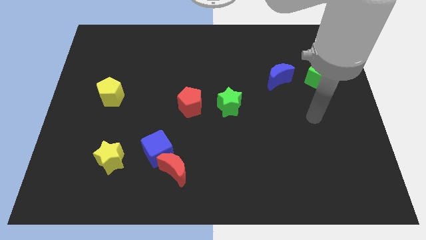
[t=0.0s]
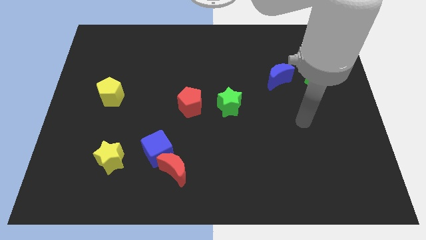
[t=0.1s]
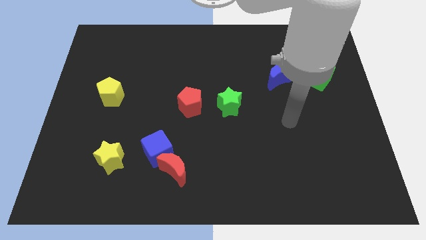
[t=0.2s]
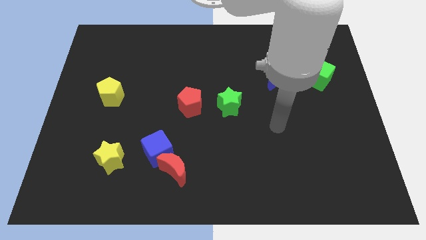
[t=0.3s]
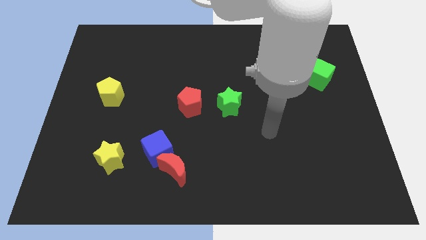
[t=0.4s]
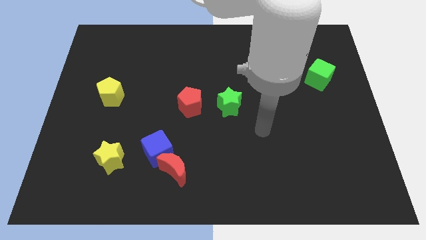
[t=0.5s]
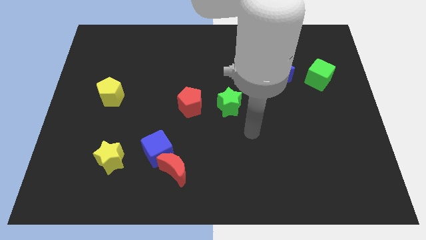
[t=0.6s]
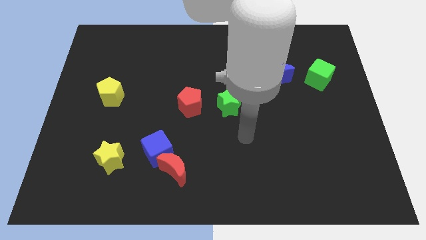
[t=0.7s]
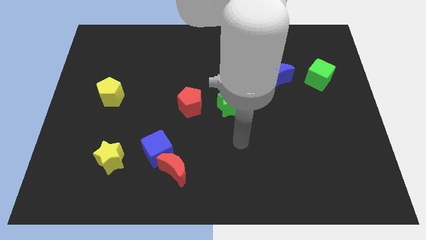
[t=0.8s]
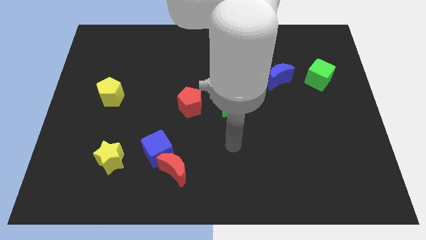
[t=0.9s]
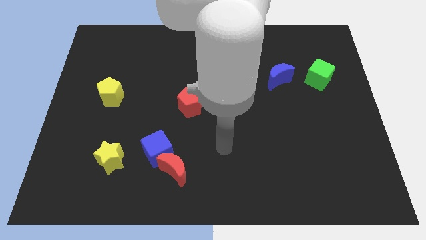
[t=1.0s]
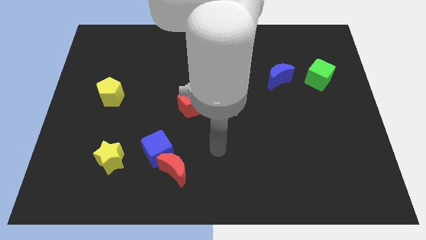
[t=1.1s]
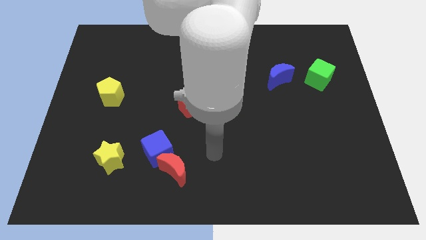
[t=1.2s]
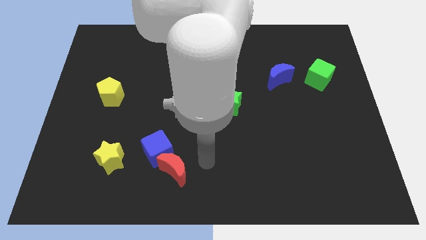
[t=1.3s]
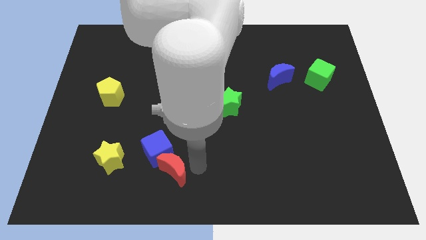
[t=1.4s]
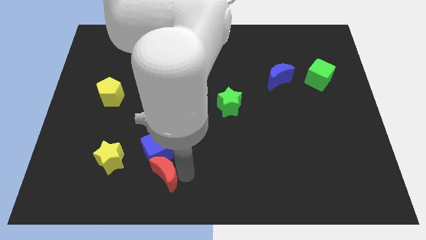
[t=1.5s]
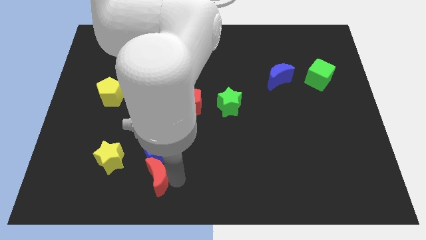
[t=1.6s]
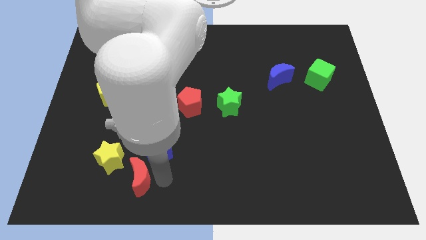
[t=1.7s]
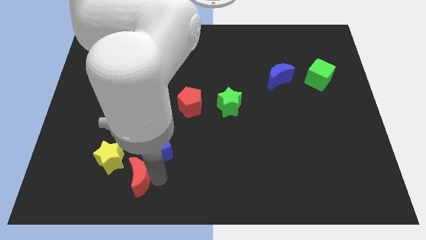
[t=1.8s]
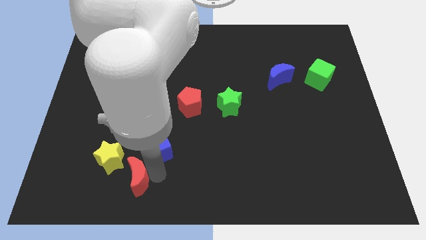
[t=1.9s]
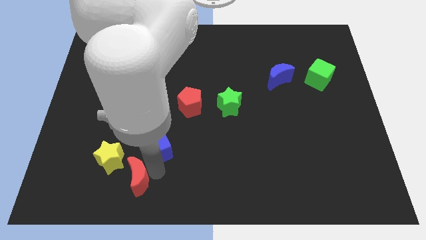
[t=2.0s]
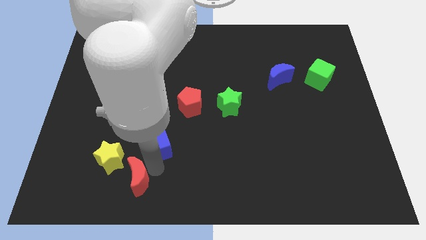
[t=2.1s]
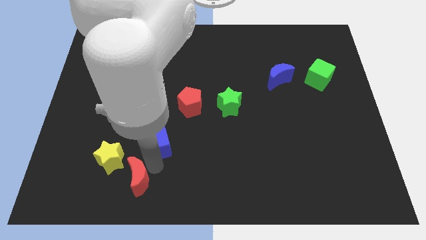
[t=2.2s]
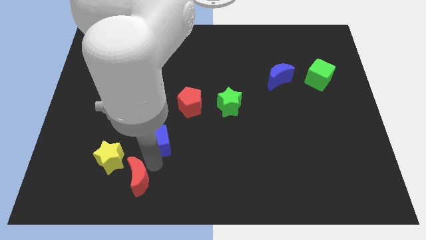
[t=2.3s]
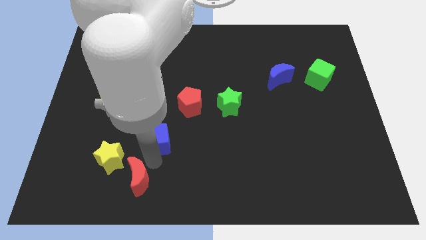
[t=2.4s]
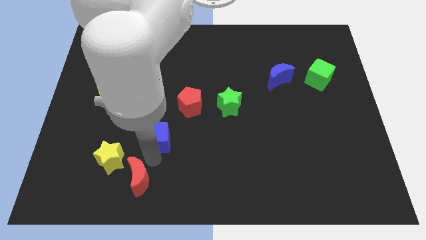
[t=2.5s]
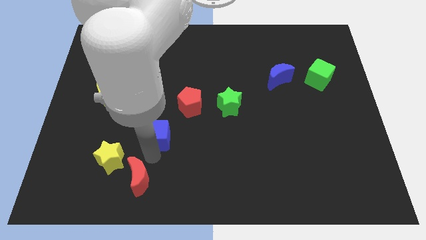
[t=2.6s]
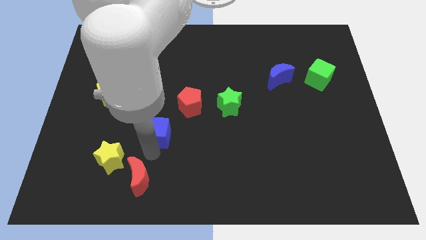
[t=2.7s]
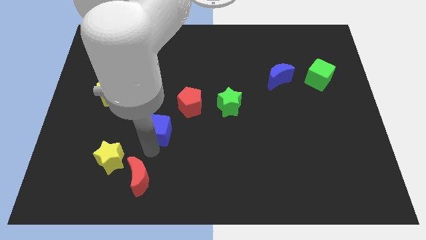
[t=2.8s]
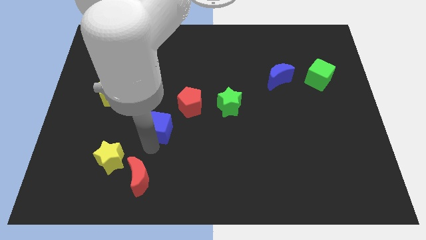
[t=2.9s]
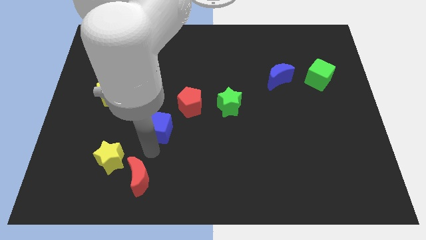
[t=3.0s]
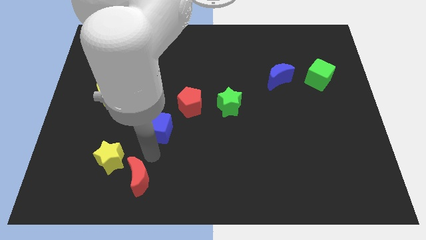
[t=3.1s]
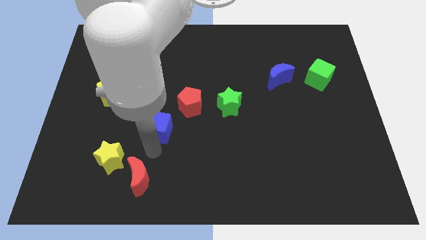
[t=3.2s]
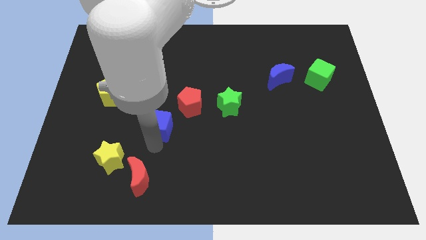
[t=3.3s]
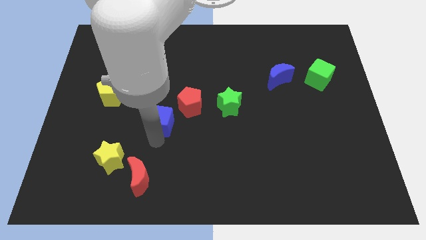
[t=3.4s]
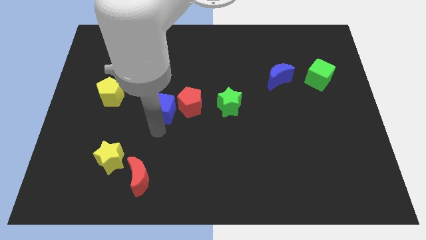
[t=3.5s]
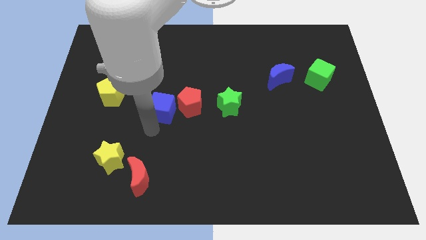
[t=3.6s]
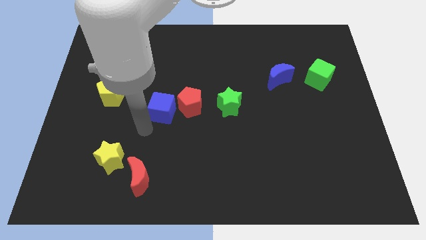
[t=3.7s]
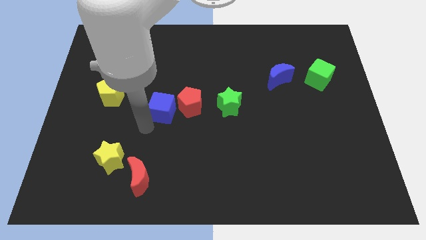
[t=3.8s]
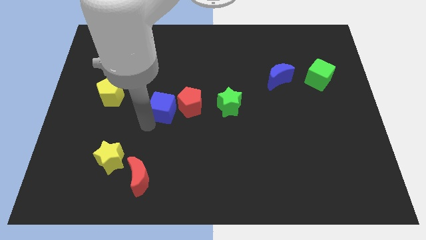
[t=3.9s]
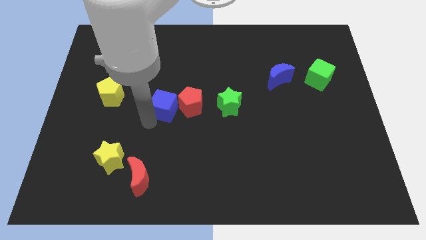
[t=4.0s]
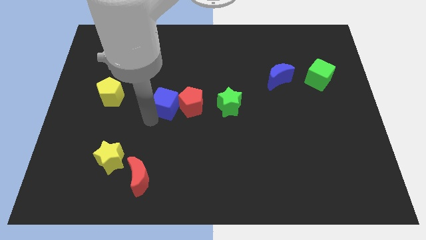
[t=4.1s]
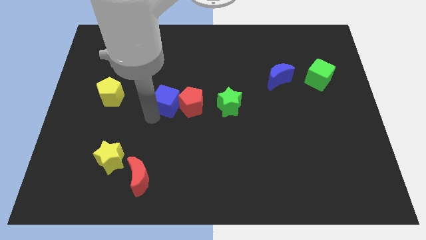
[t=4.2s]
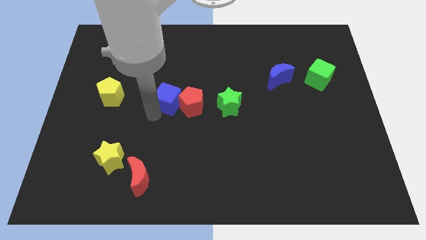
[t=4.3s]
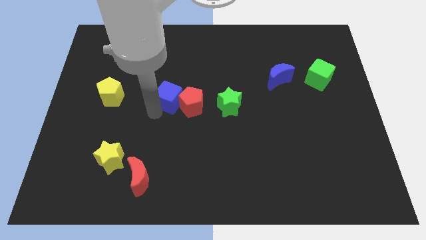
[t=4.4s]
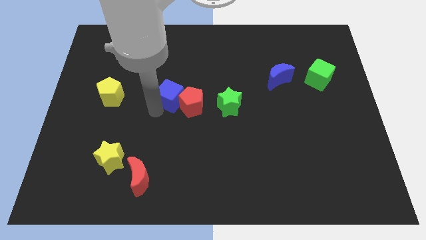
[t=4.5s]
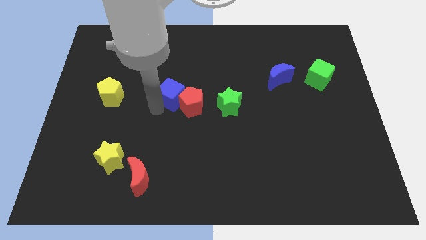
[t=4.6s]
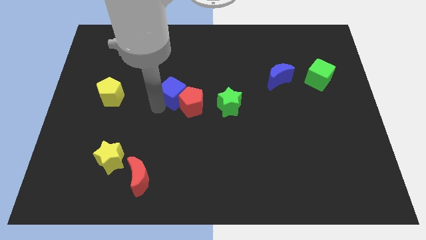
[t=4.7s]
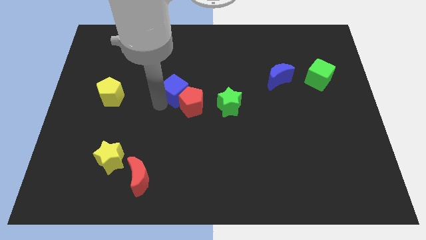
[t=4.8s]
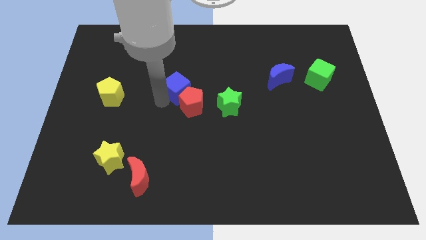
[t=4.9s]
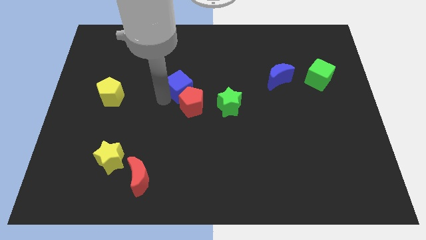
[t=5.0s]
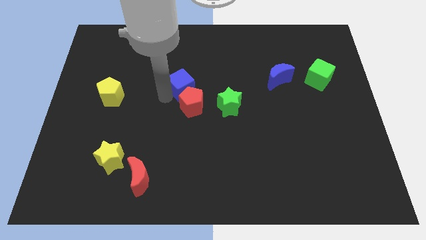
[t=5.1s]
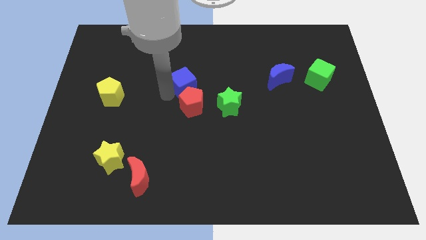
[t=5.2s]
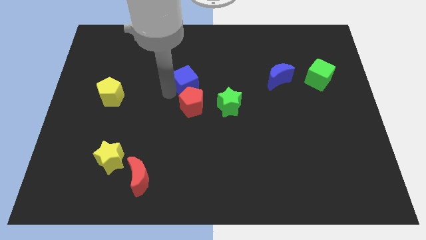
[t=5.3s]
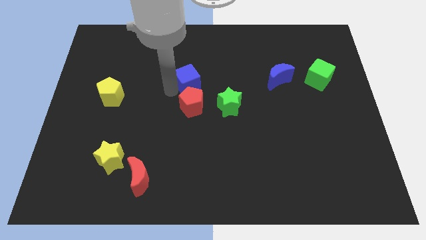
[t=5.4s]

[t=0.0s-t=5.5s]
push the blue cube to the top left side of the green star

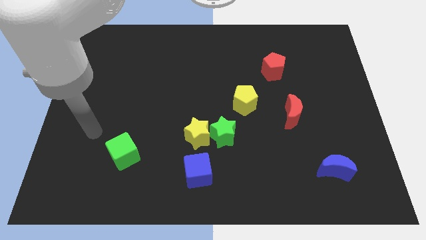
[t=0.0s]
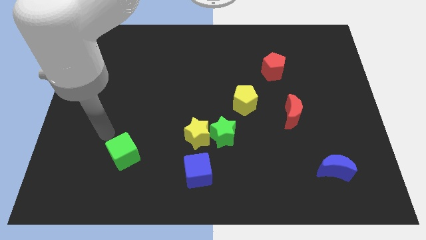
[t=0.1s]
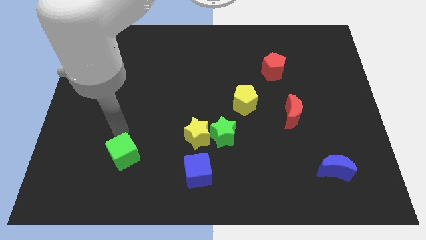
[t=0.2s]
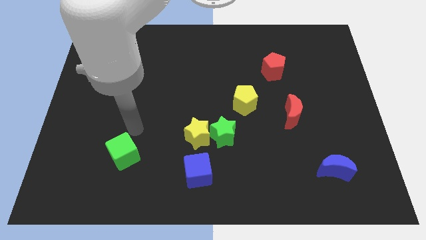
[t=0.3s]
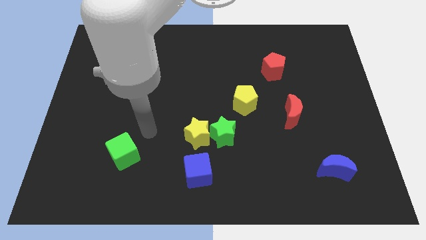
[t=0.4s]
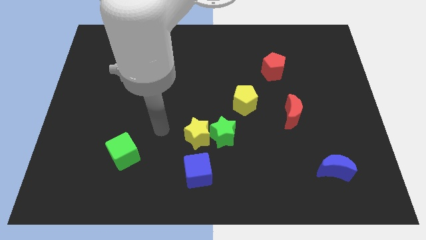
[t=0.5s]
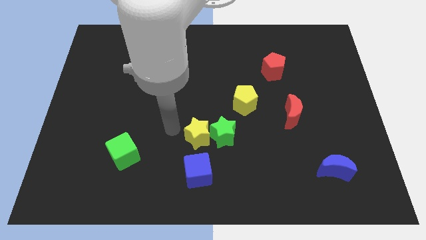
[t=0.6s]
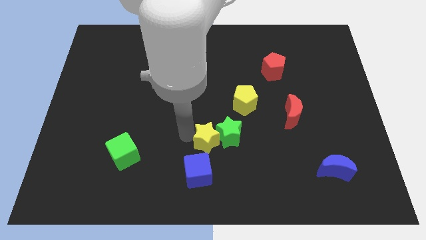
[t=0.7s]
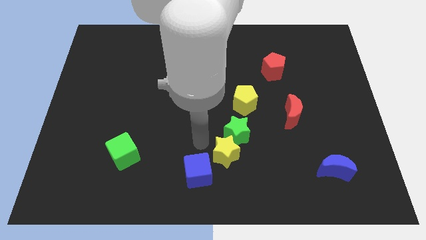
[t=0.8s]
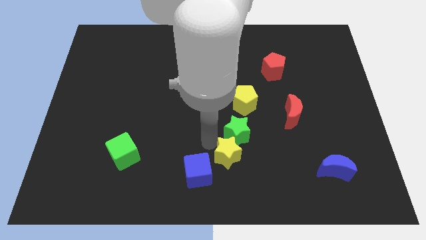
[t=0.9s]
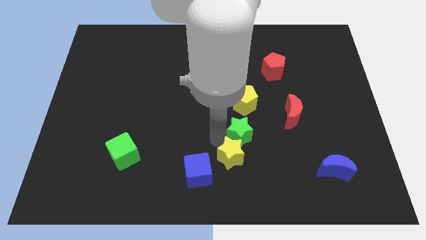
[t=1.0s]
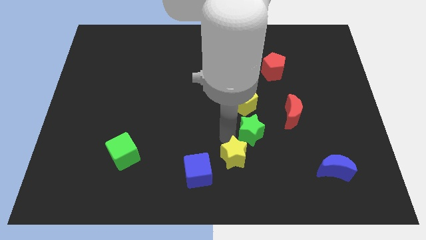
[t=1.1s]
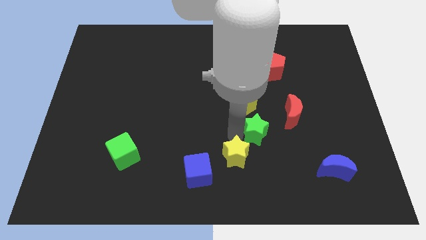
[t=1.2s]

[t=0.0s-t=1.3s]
slide the green star diagonally down and to the right of the yellow pentagon

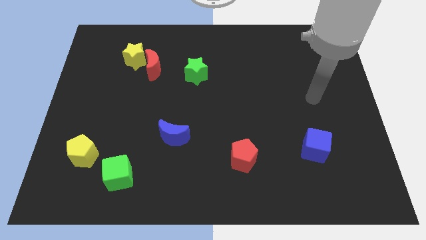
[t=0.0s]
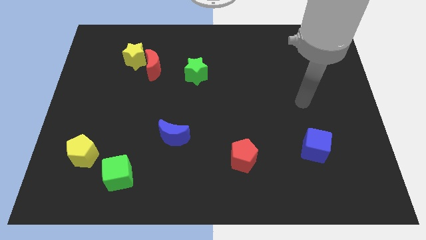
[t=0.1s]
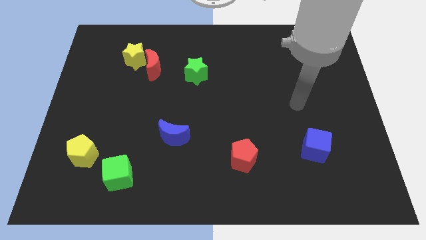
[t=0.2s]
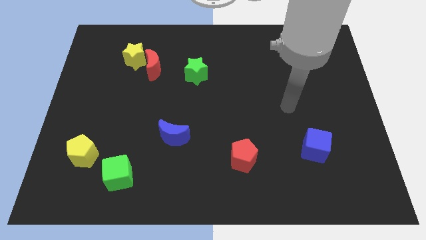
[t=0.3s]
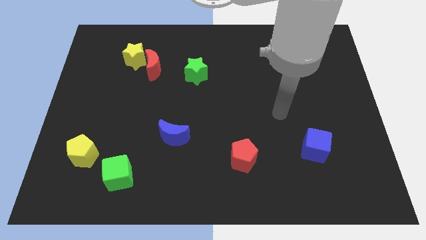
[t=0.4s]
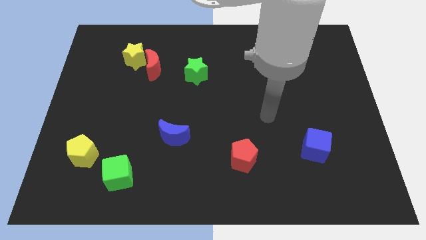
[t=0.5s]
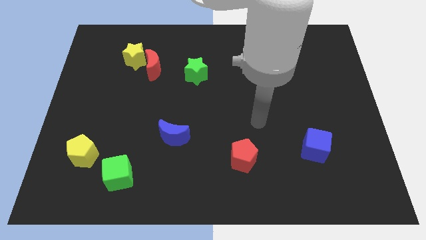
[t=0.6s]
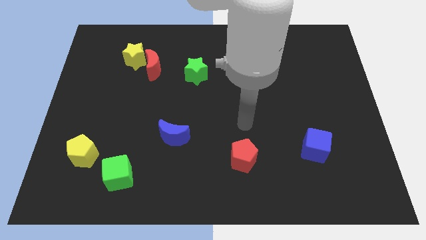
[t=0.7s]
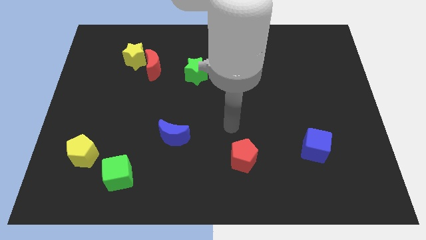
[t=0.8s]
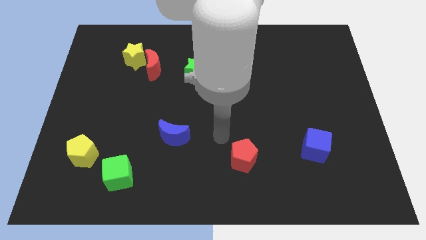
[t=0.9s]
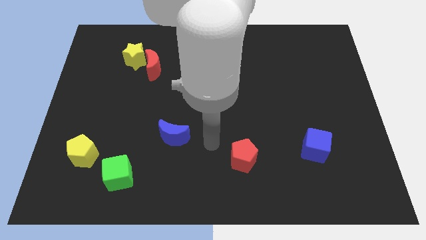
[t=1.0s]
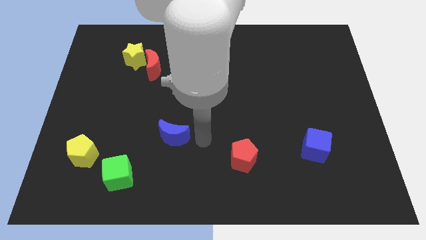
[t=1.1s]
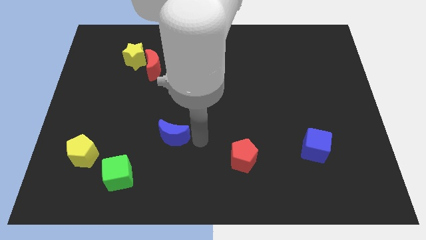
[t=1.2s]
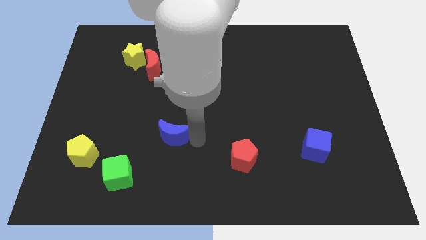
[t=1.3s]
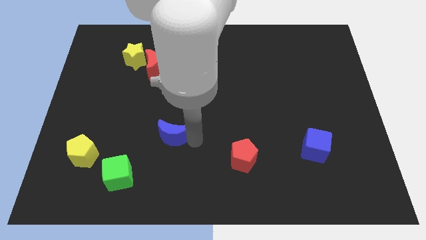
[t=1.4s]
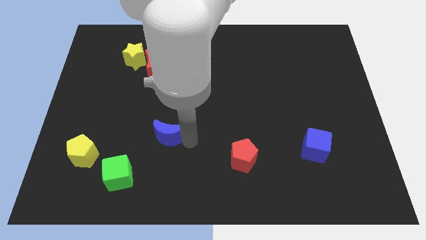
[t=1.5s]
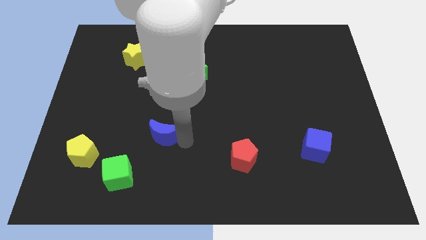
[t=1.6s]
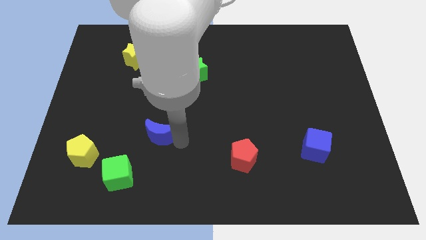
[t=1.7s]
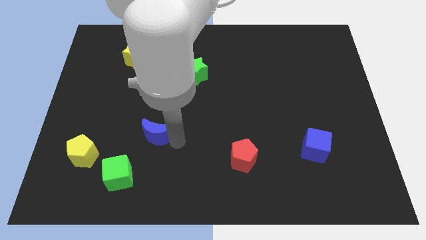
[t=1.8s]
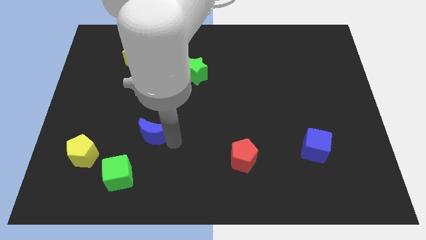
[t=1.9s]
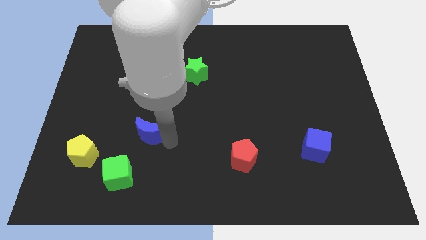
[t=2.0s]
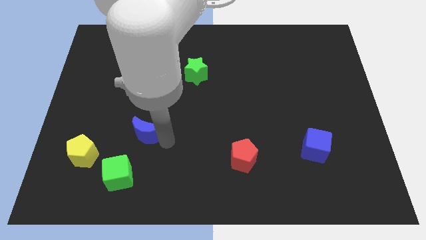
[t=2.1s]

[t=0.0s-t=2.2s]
push the blue moon above the green cube
